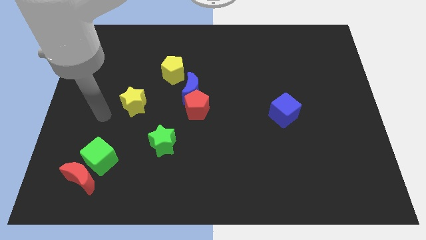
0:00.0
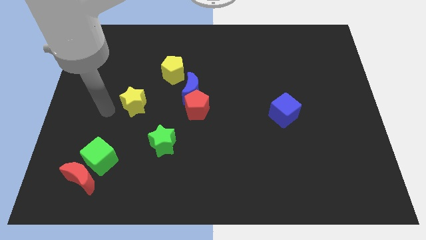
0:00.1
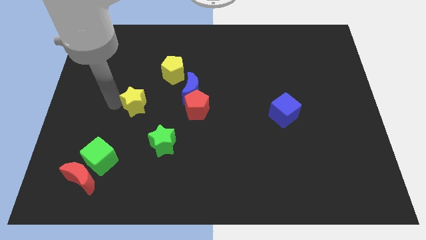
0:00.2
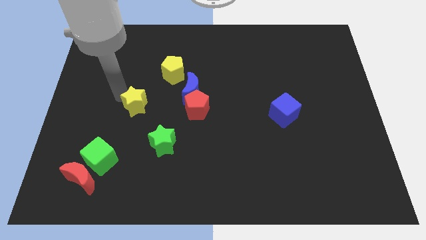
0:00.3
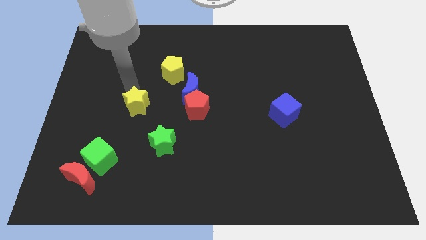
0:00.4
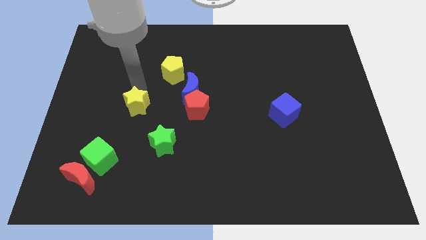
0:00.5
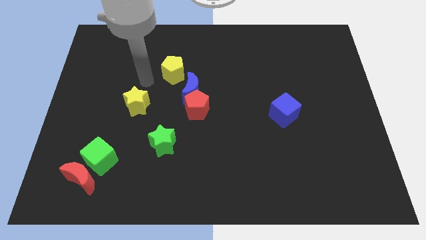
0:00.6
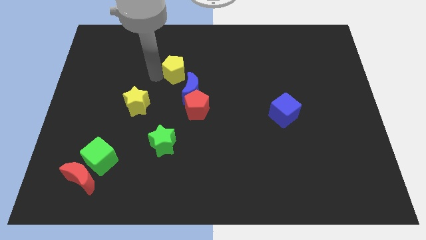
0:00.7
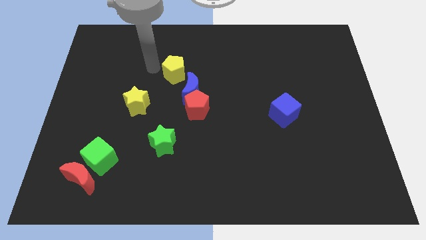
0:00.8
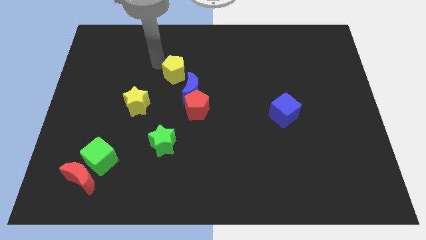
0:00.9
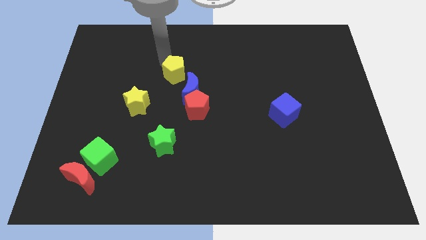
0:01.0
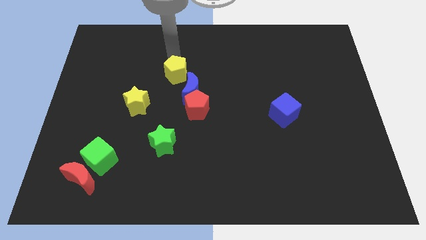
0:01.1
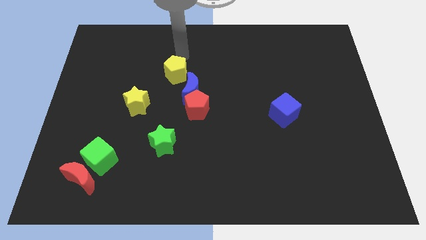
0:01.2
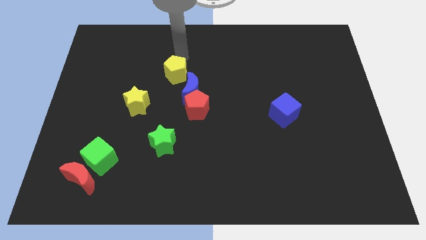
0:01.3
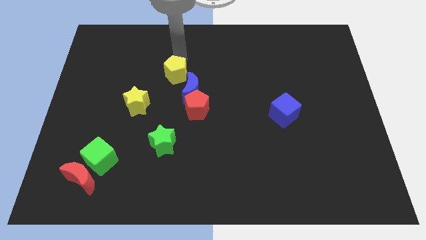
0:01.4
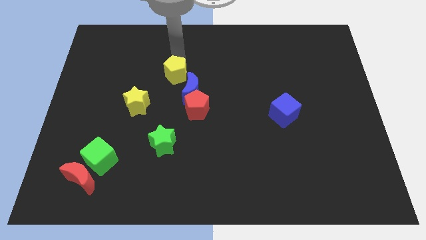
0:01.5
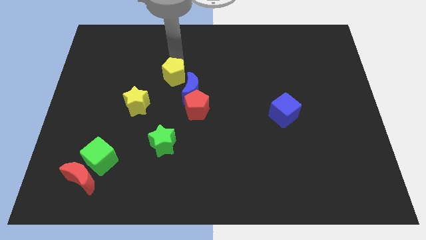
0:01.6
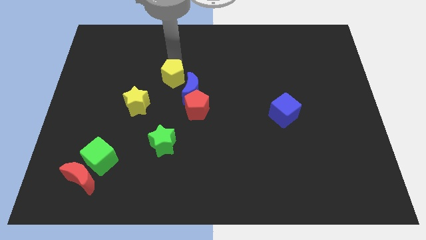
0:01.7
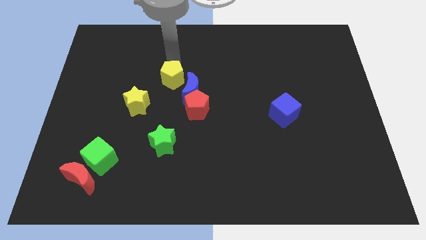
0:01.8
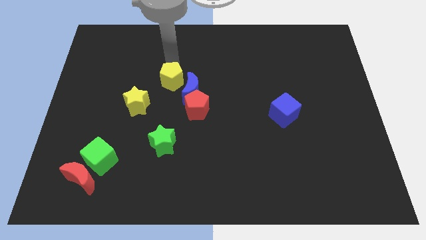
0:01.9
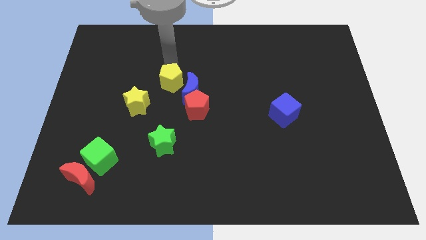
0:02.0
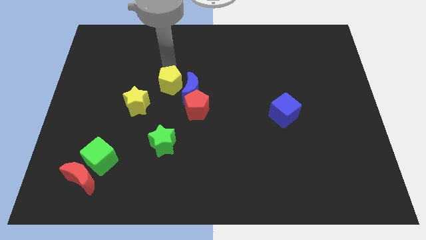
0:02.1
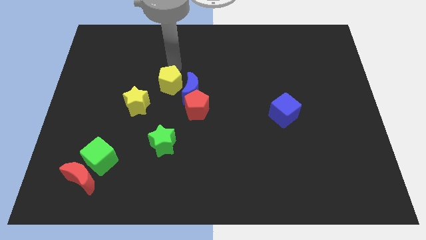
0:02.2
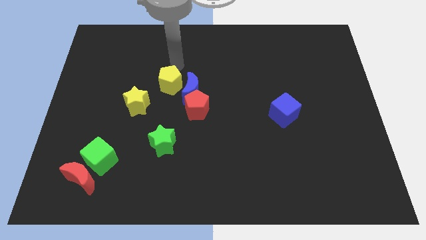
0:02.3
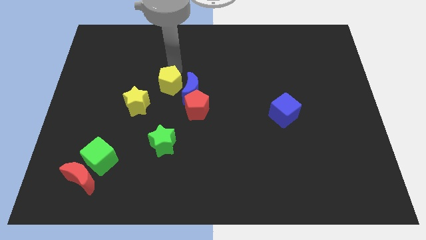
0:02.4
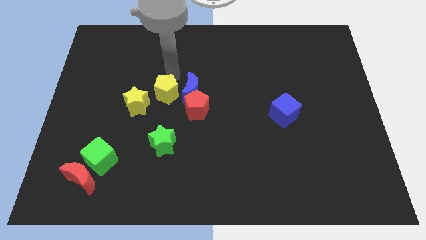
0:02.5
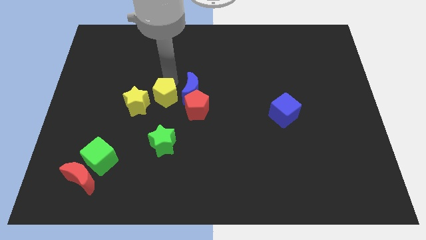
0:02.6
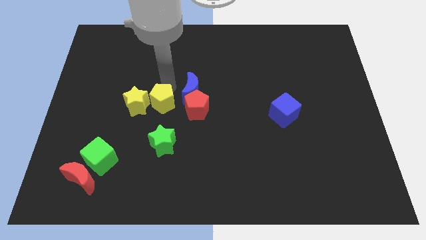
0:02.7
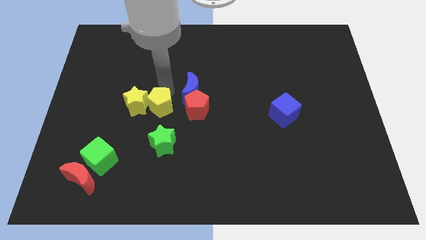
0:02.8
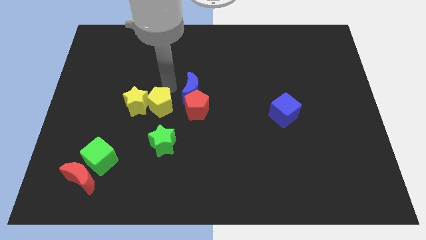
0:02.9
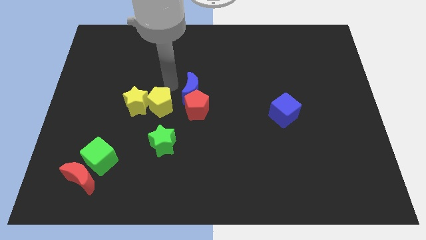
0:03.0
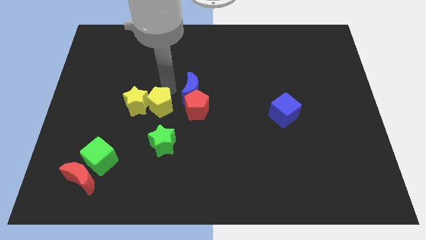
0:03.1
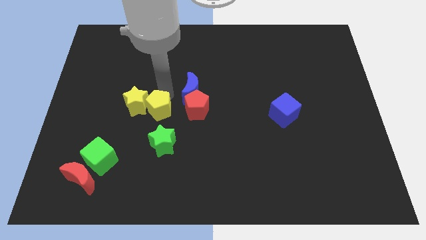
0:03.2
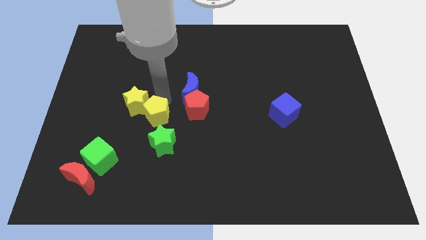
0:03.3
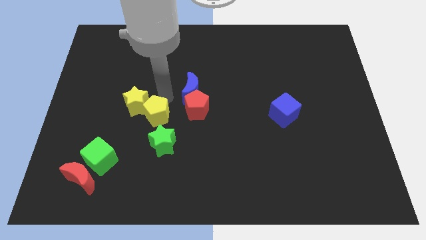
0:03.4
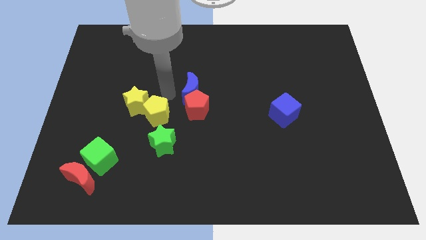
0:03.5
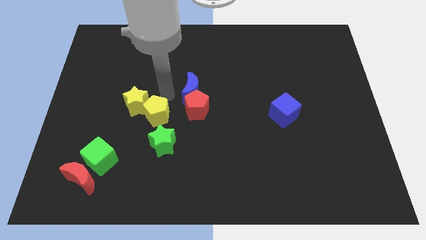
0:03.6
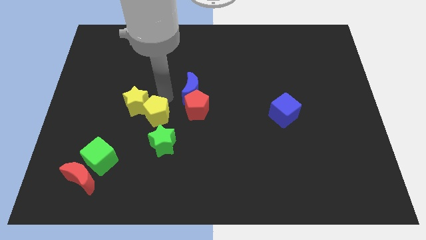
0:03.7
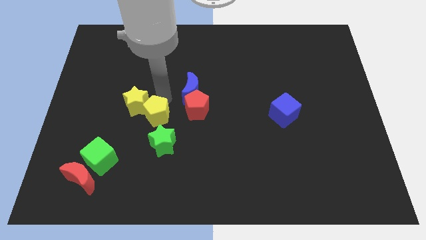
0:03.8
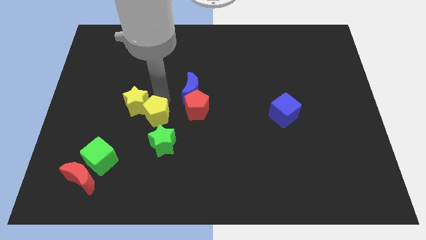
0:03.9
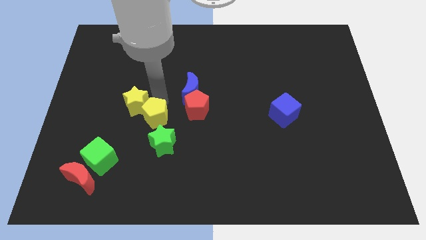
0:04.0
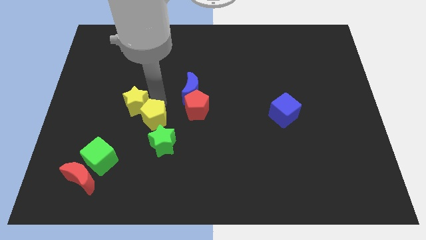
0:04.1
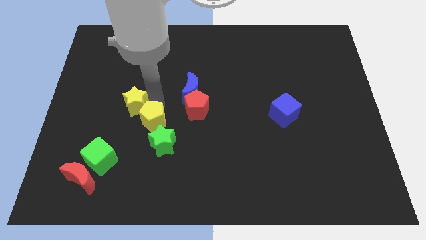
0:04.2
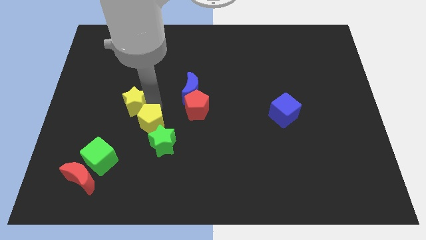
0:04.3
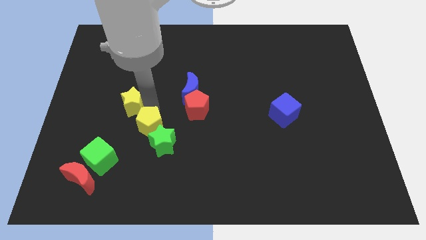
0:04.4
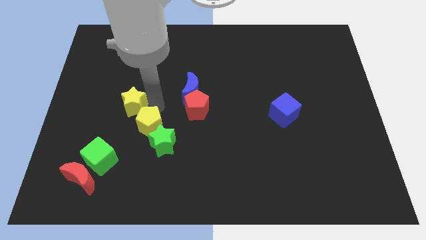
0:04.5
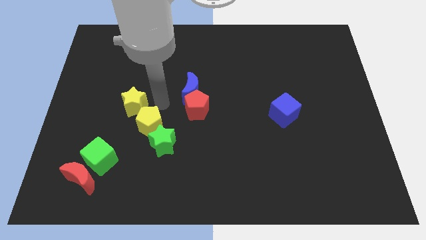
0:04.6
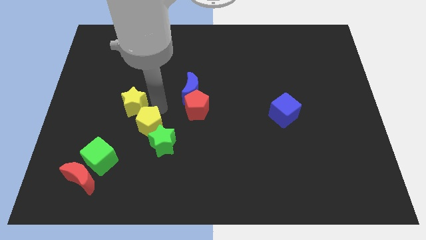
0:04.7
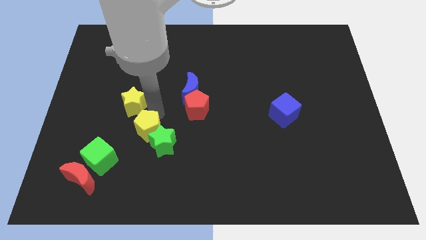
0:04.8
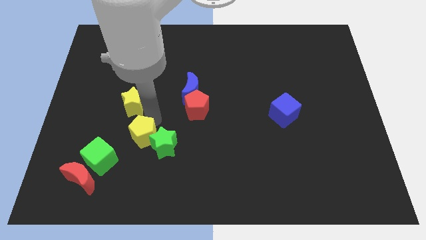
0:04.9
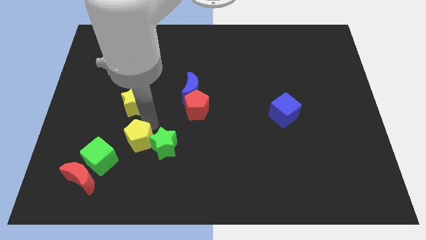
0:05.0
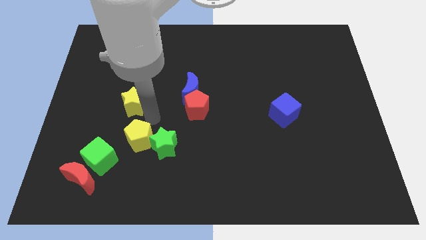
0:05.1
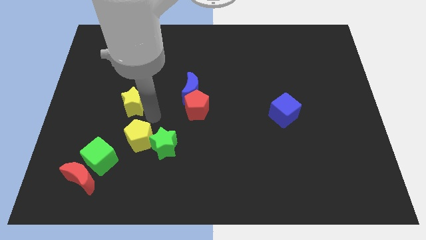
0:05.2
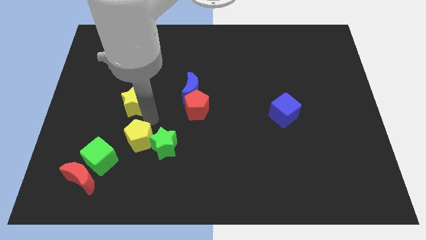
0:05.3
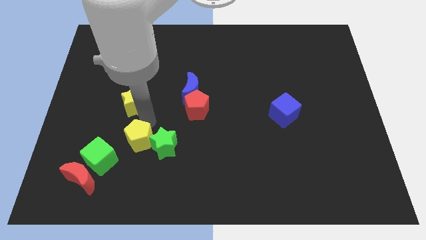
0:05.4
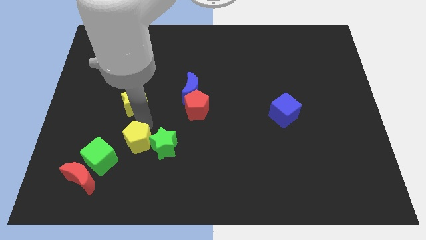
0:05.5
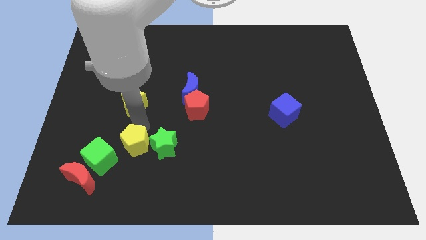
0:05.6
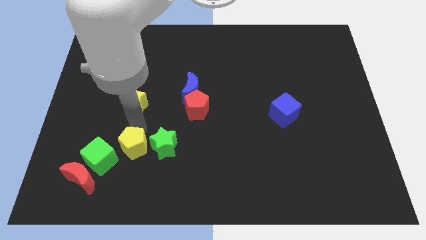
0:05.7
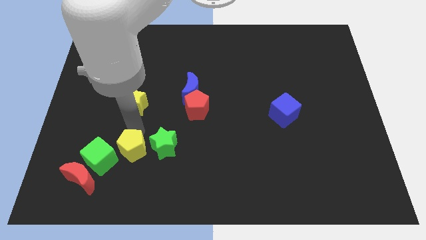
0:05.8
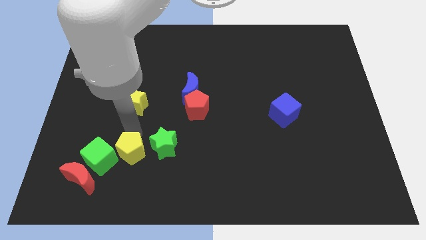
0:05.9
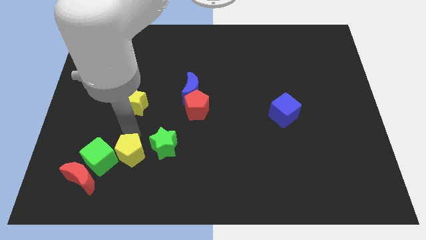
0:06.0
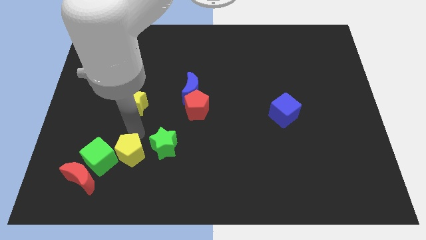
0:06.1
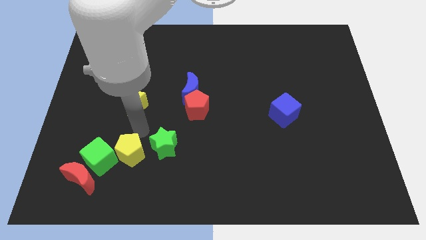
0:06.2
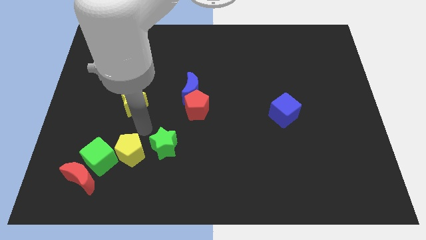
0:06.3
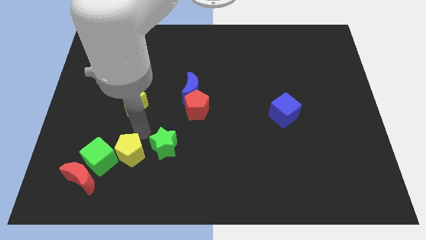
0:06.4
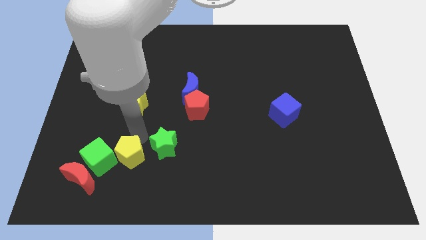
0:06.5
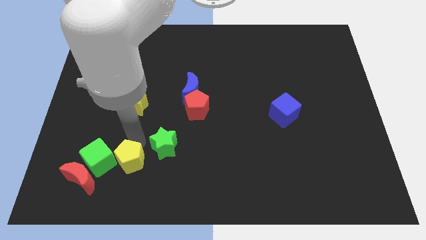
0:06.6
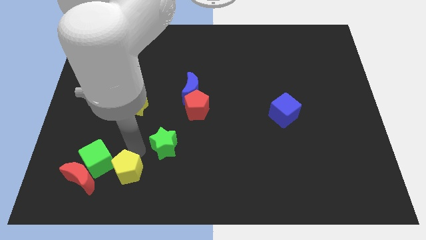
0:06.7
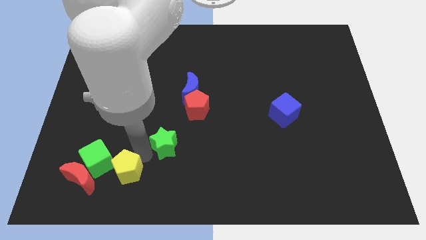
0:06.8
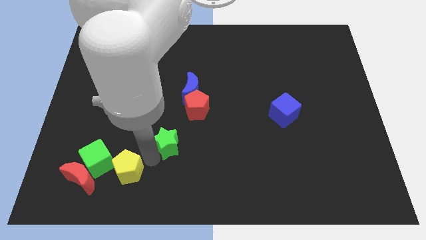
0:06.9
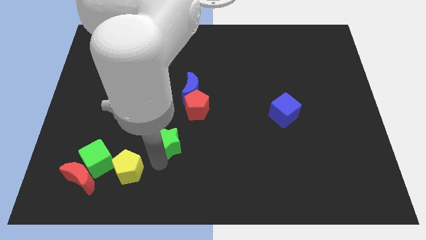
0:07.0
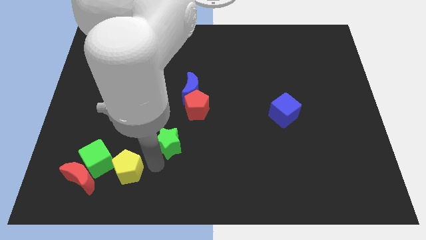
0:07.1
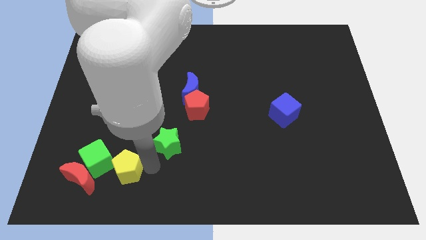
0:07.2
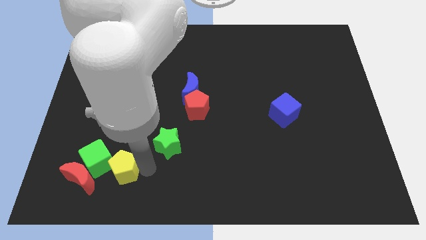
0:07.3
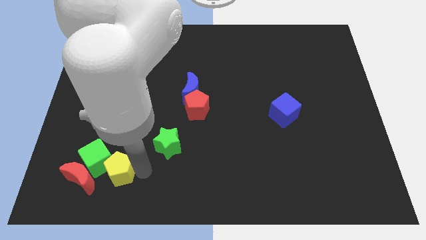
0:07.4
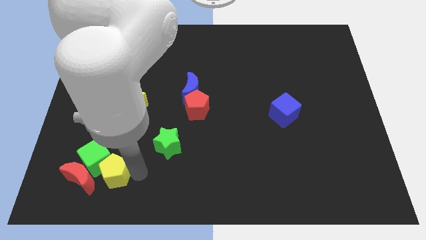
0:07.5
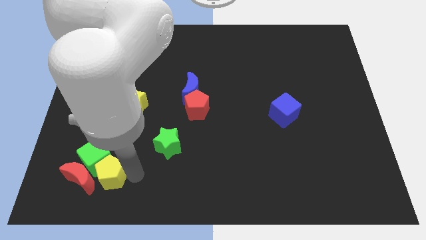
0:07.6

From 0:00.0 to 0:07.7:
put the yellow pentagon to the red moon
